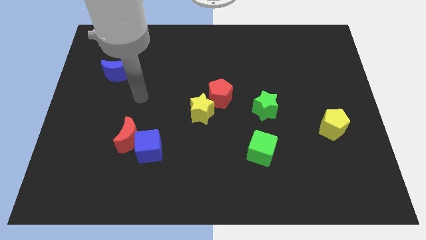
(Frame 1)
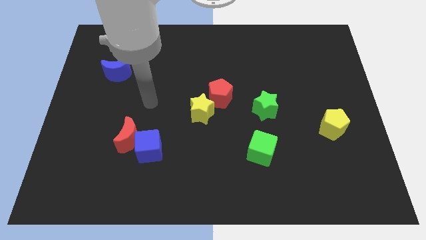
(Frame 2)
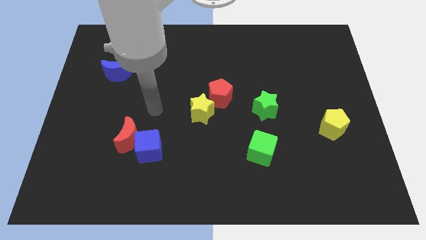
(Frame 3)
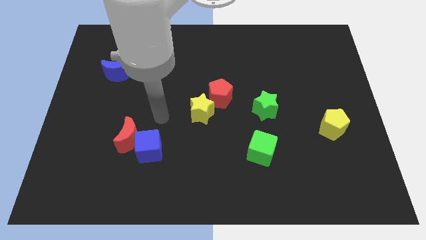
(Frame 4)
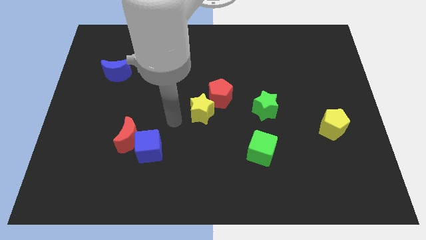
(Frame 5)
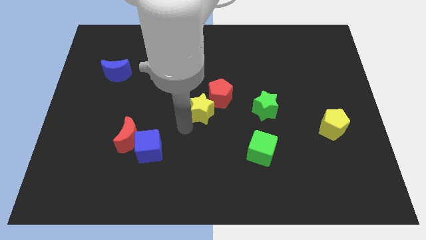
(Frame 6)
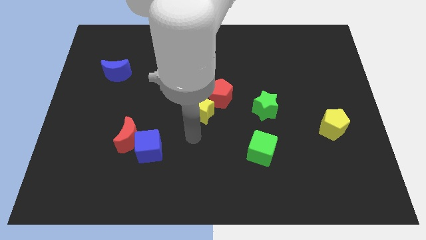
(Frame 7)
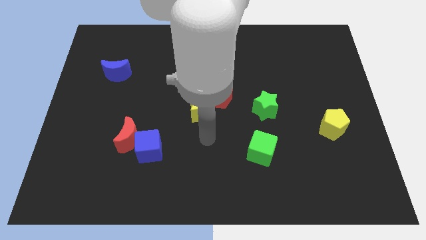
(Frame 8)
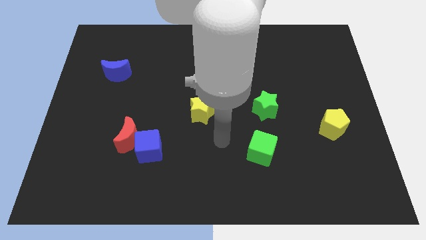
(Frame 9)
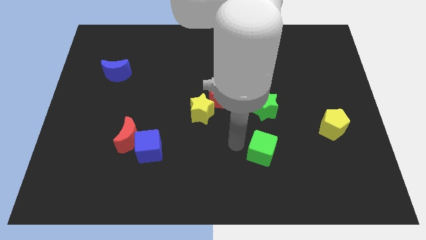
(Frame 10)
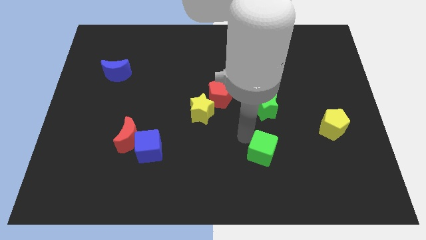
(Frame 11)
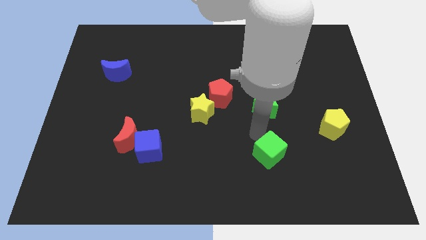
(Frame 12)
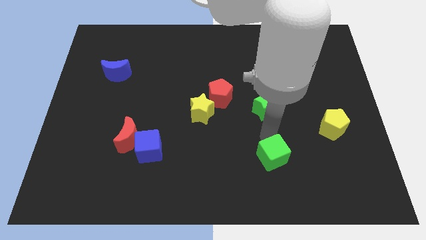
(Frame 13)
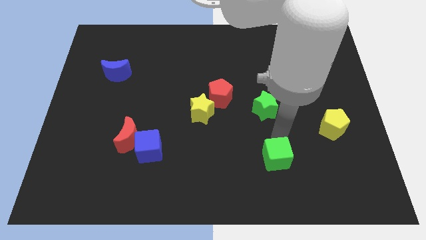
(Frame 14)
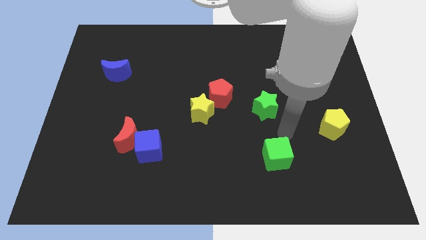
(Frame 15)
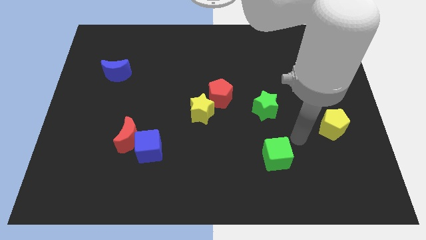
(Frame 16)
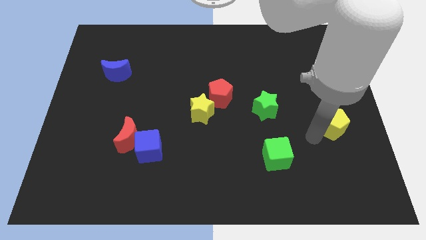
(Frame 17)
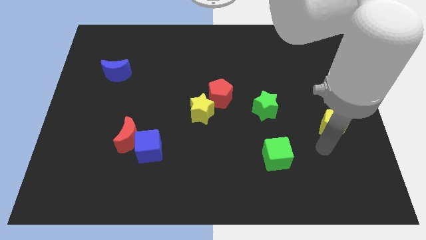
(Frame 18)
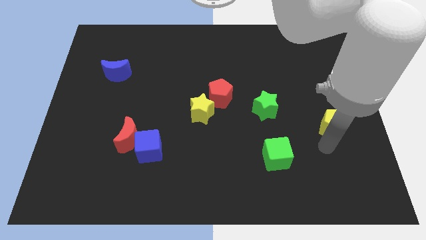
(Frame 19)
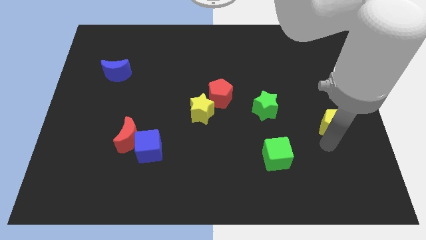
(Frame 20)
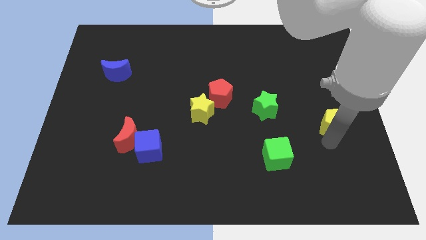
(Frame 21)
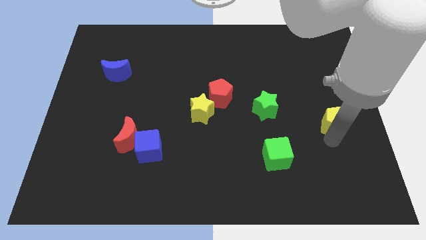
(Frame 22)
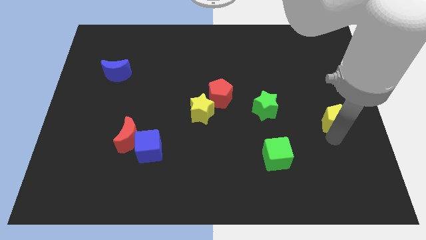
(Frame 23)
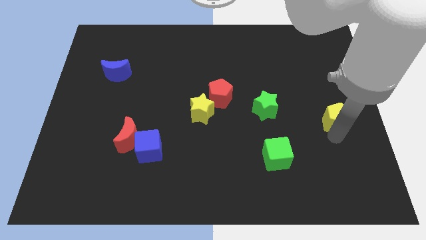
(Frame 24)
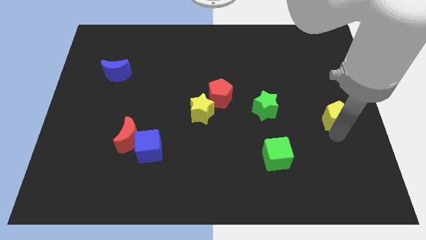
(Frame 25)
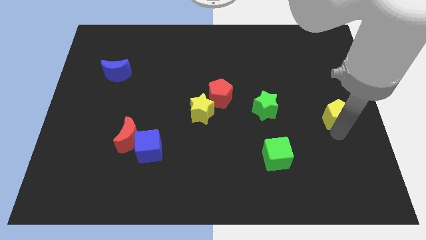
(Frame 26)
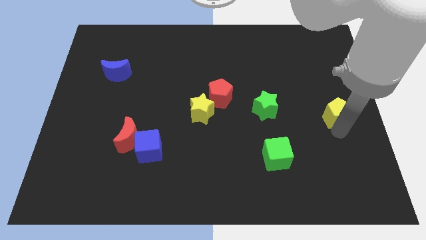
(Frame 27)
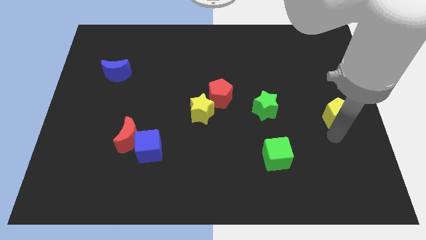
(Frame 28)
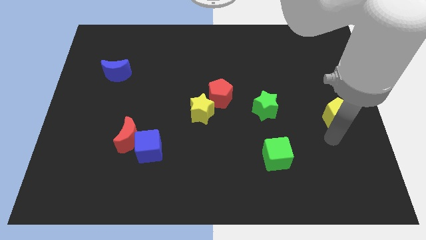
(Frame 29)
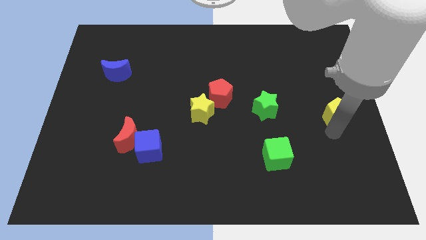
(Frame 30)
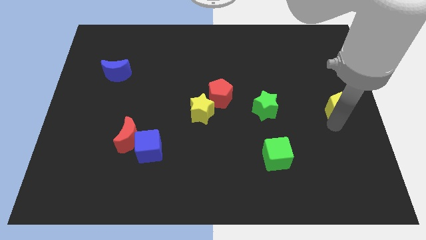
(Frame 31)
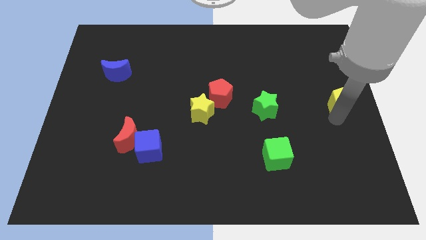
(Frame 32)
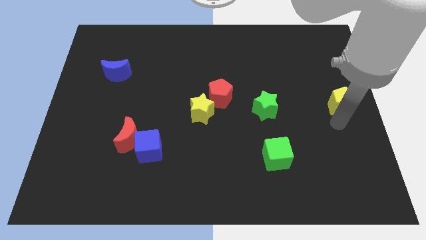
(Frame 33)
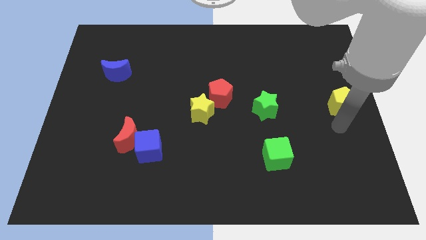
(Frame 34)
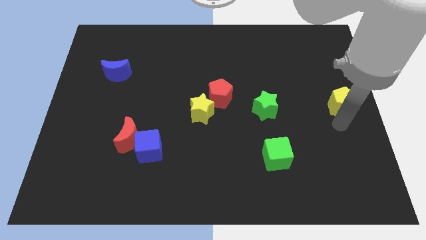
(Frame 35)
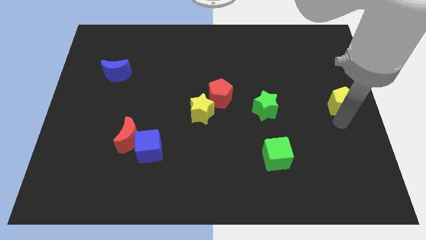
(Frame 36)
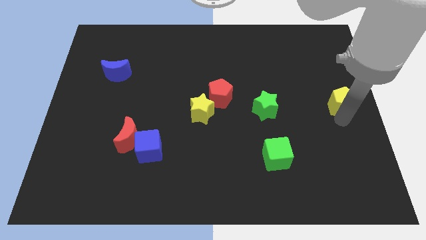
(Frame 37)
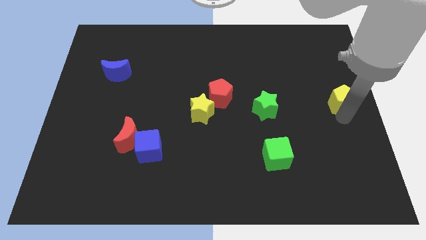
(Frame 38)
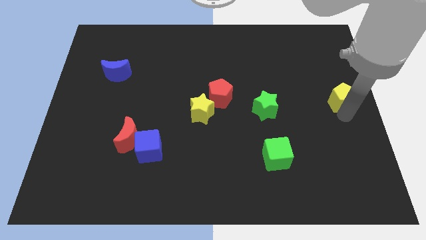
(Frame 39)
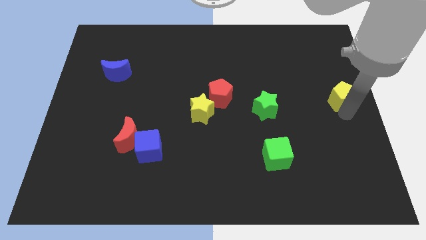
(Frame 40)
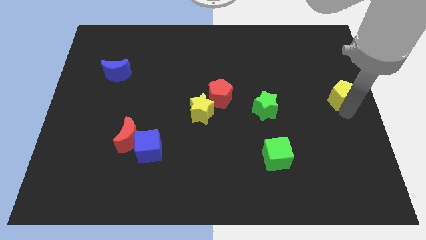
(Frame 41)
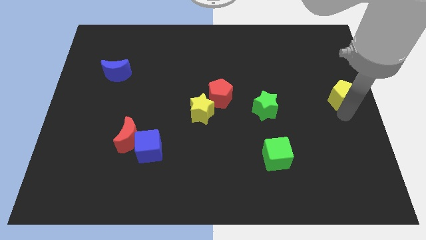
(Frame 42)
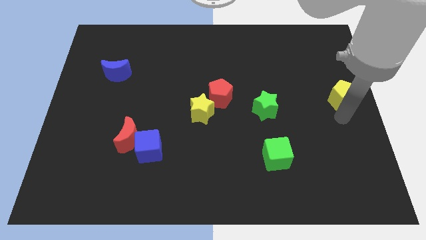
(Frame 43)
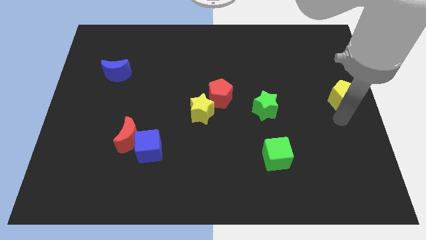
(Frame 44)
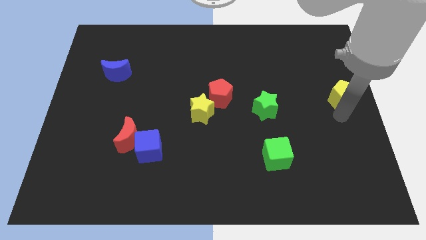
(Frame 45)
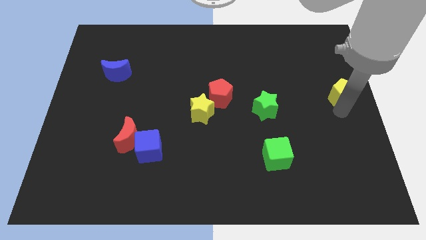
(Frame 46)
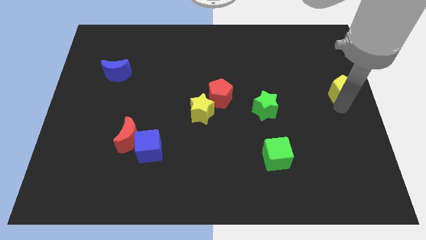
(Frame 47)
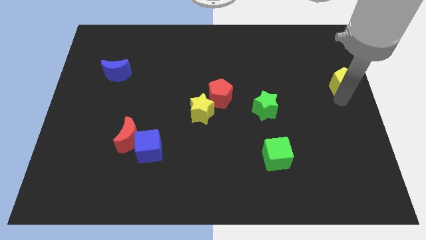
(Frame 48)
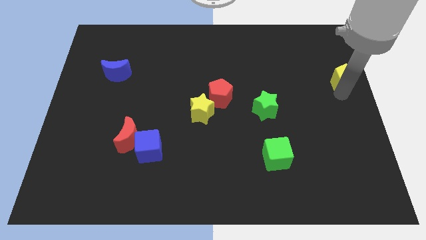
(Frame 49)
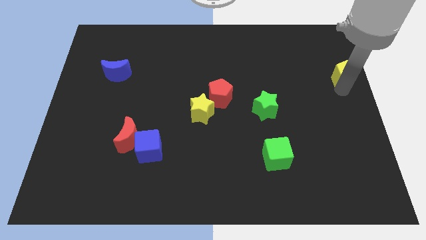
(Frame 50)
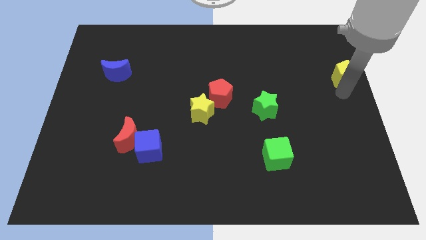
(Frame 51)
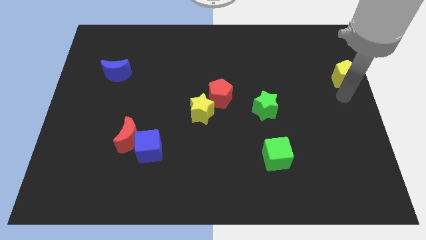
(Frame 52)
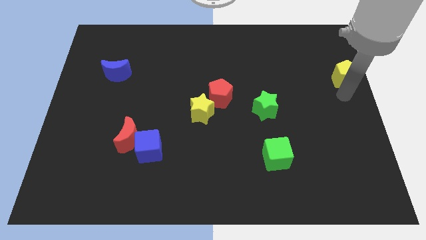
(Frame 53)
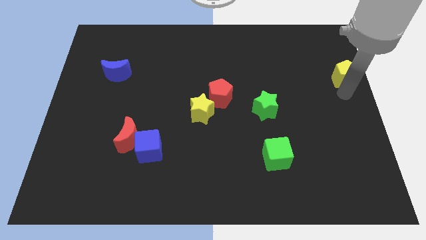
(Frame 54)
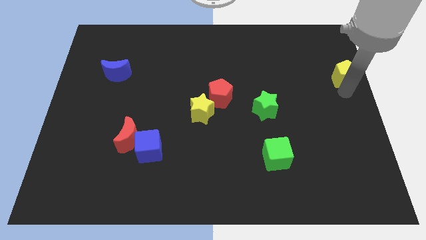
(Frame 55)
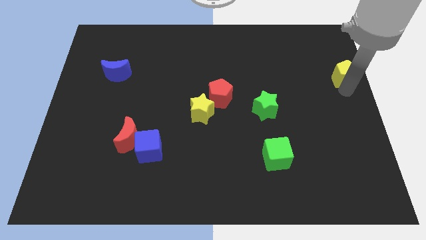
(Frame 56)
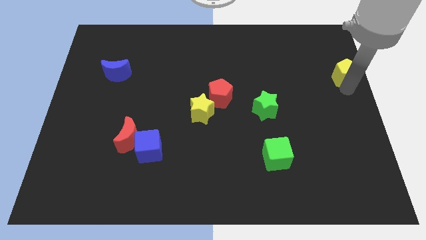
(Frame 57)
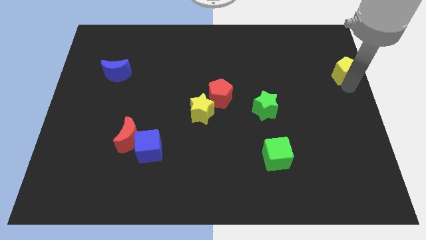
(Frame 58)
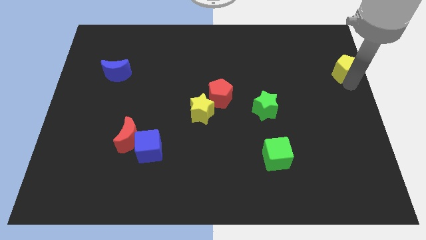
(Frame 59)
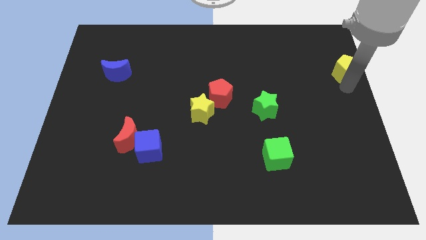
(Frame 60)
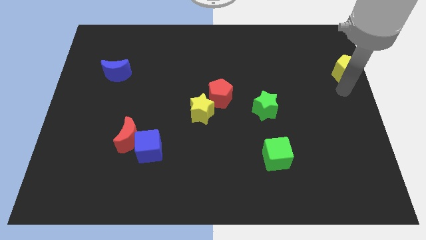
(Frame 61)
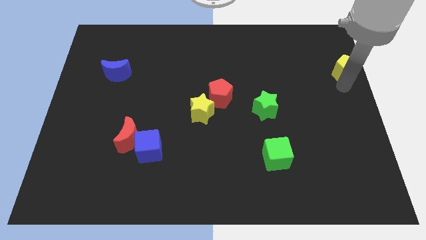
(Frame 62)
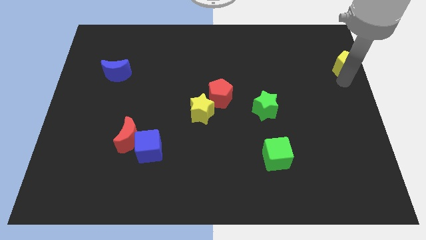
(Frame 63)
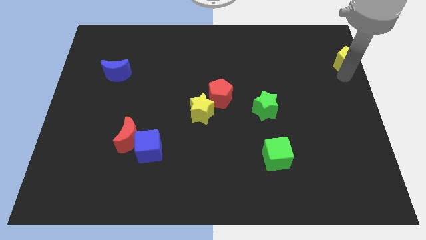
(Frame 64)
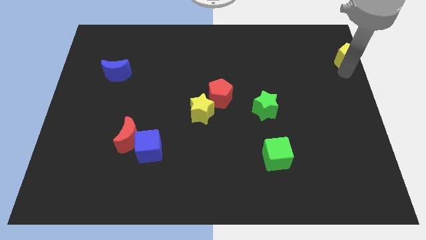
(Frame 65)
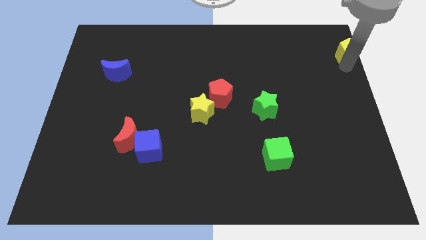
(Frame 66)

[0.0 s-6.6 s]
put the yellow pentagon to the top right corner
